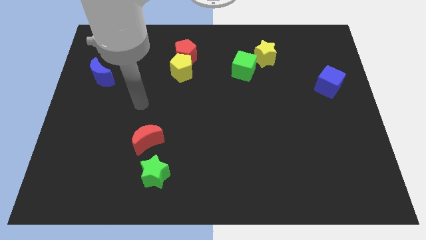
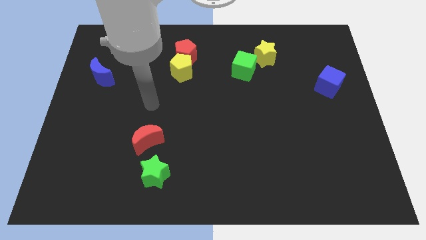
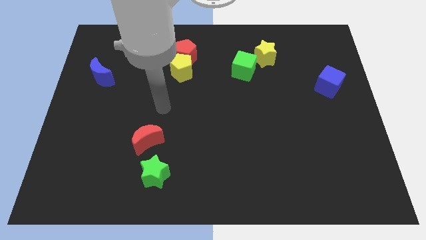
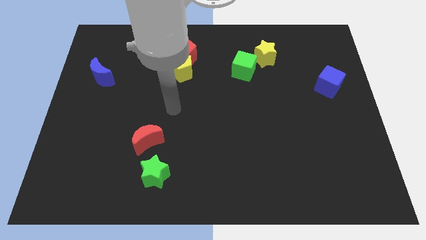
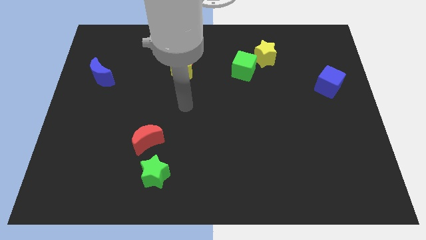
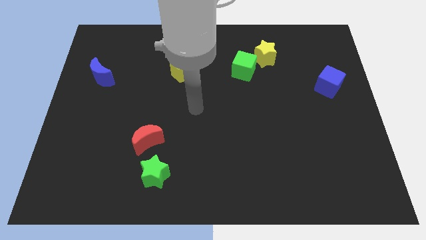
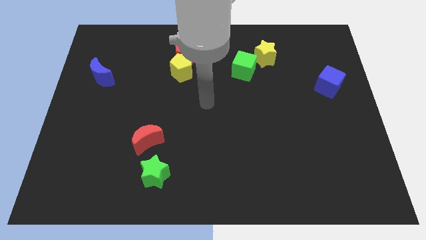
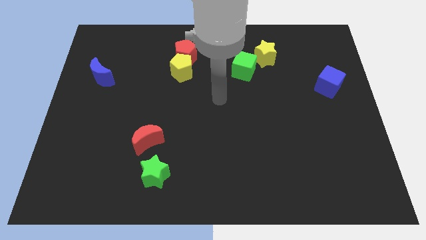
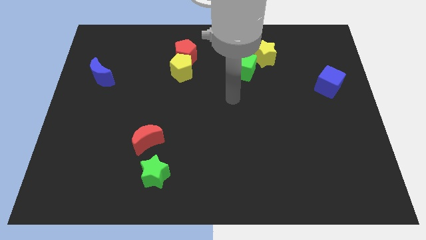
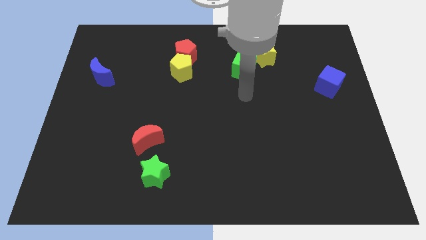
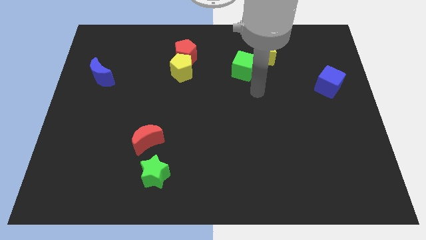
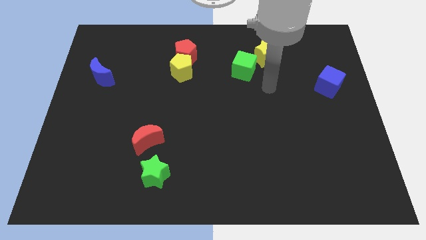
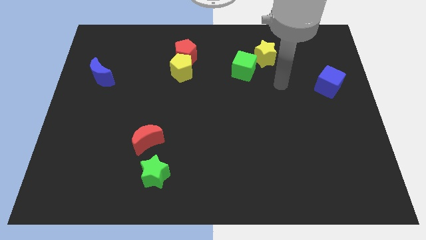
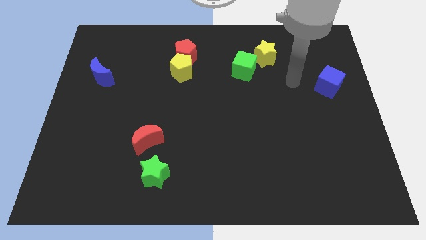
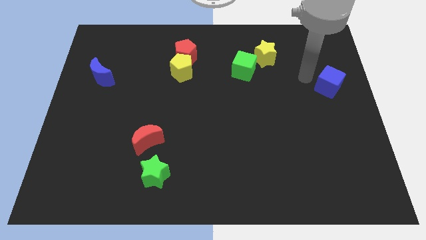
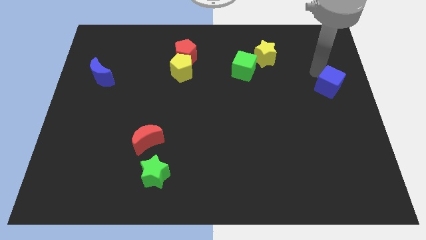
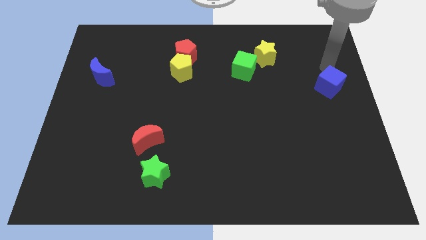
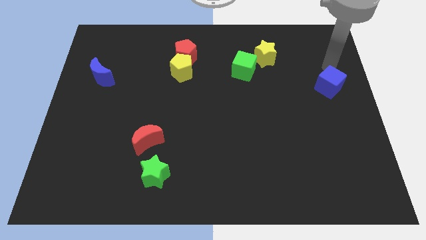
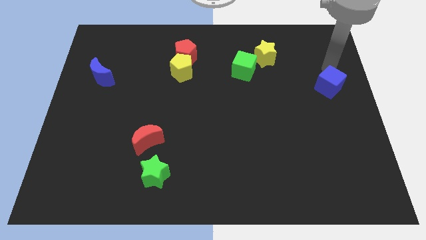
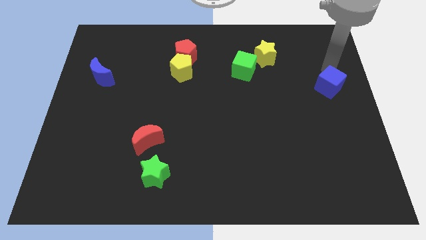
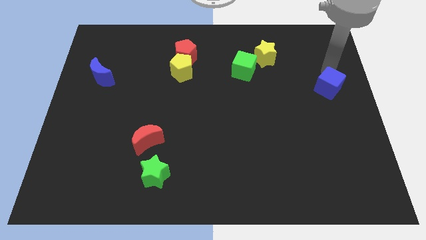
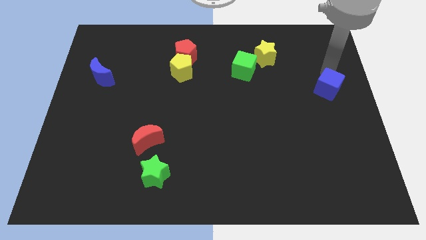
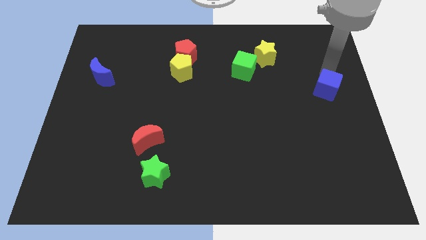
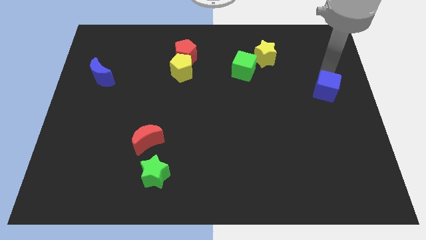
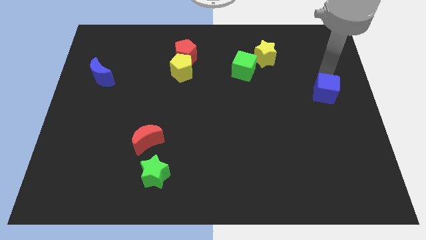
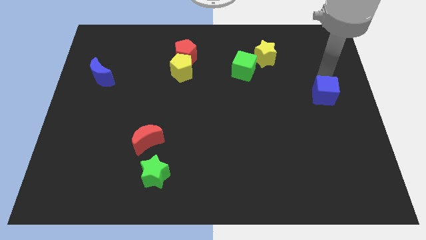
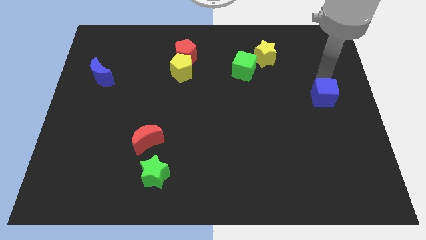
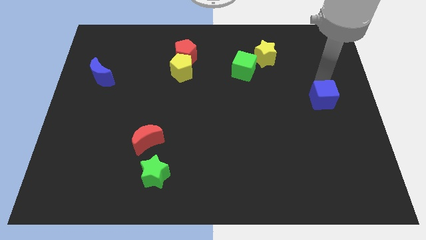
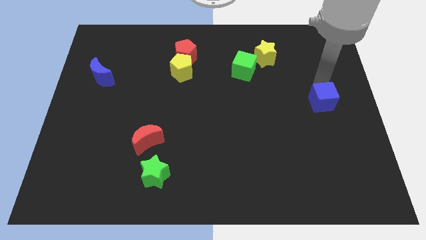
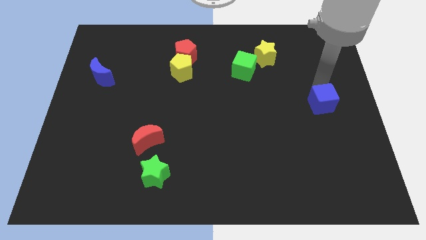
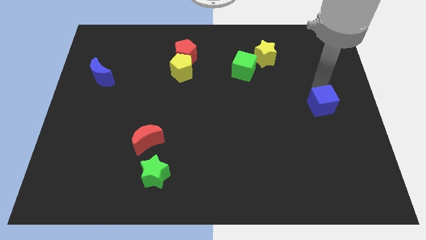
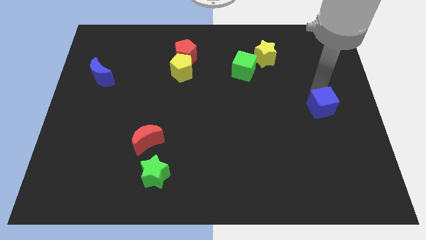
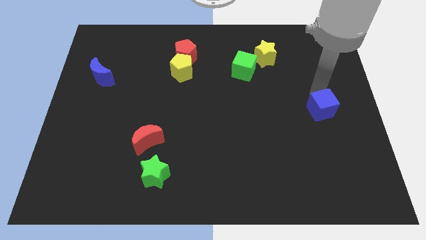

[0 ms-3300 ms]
slide the blue cube slightly downwards

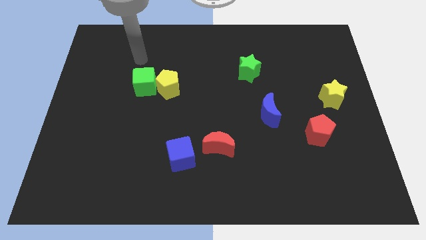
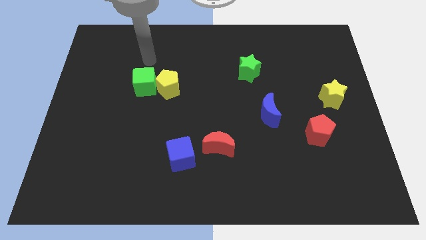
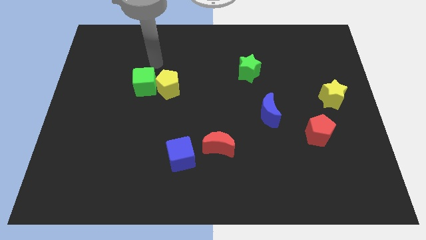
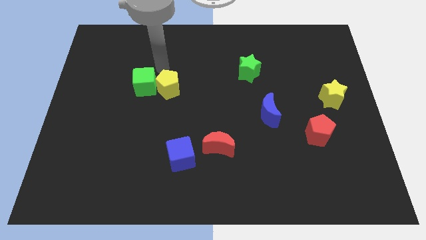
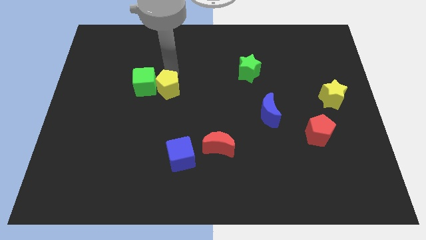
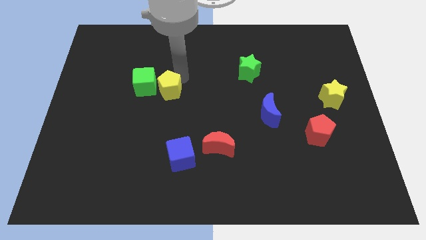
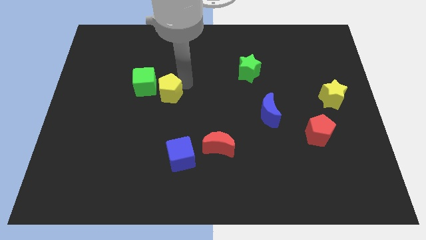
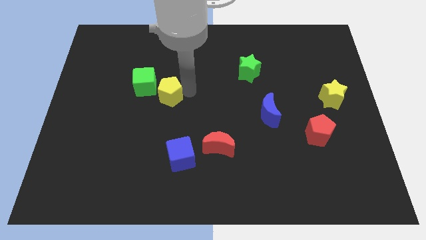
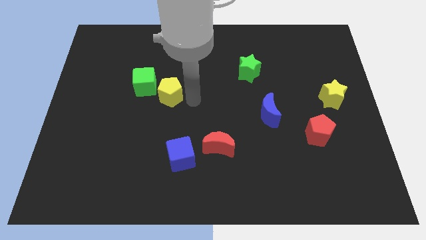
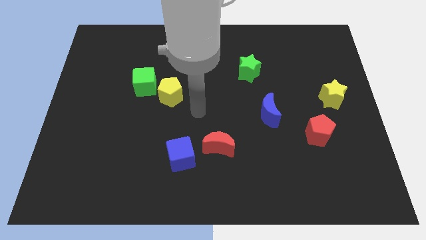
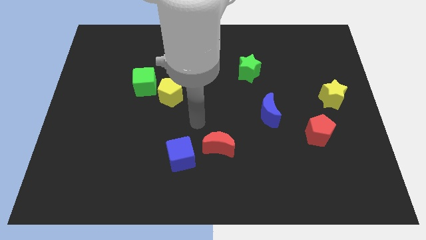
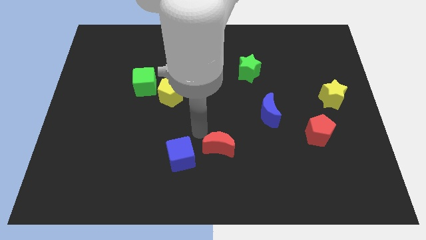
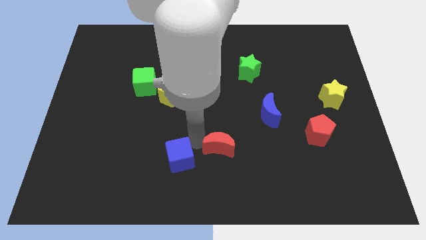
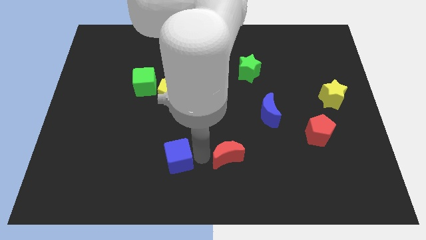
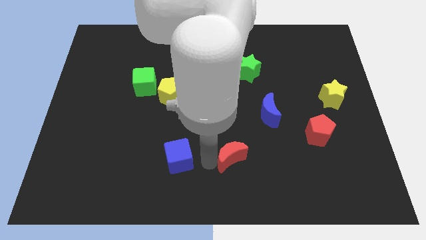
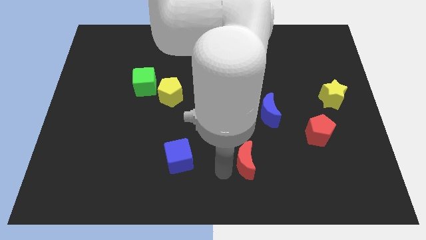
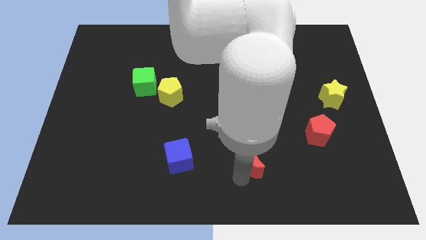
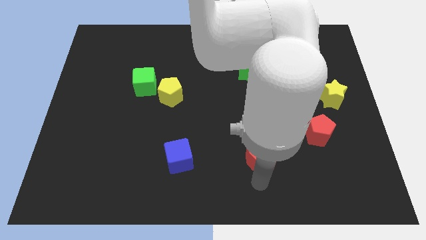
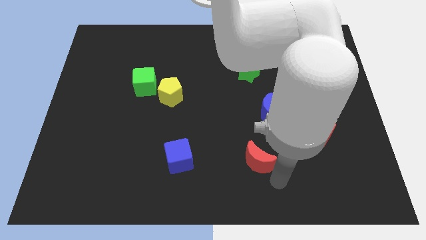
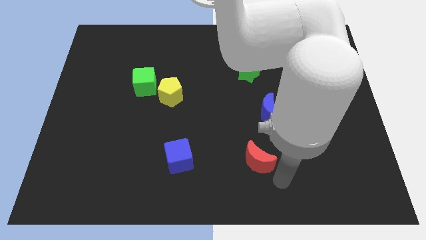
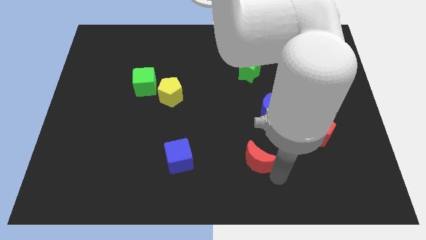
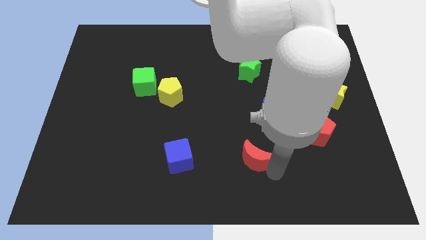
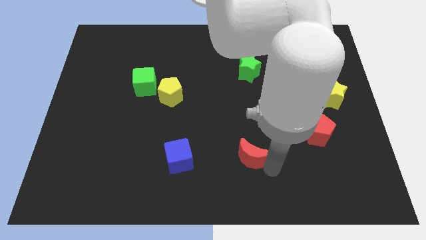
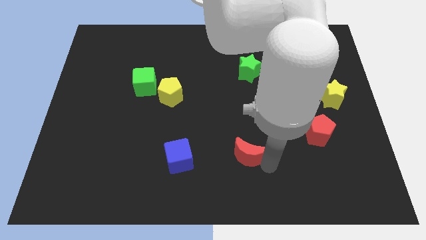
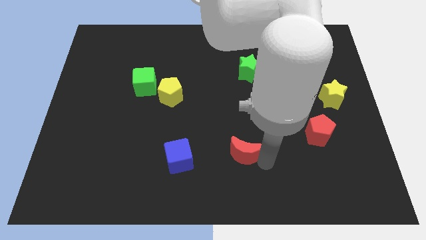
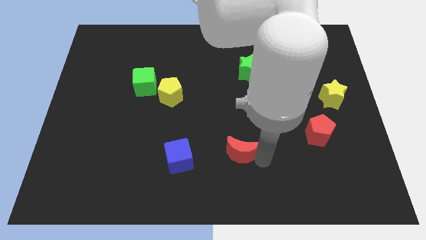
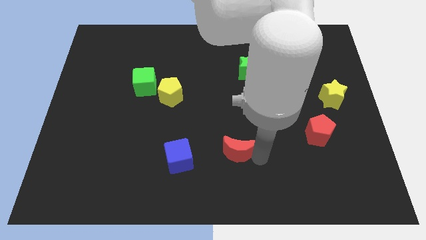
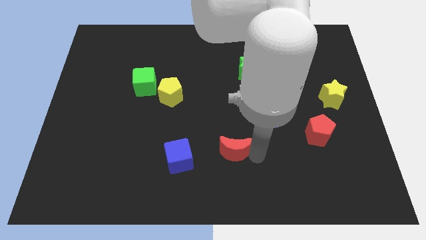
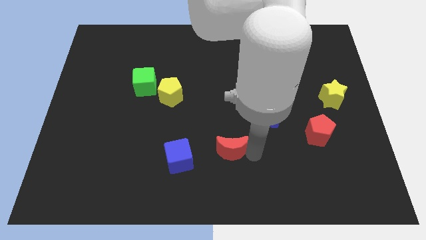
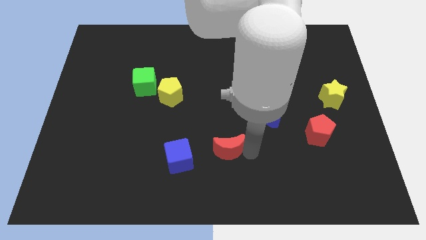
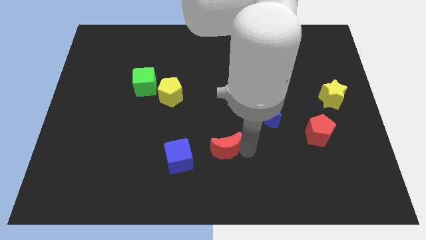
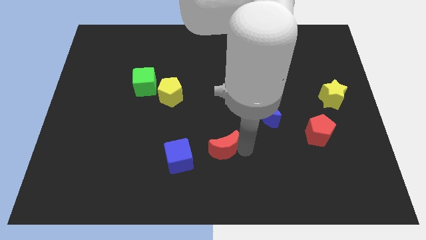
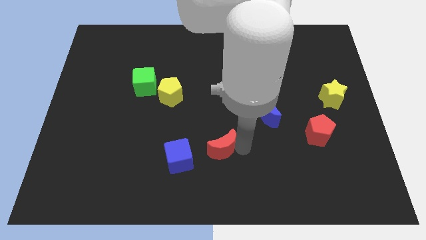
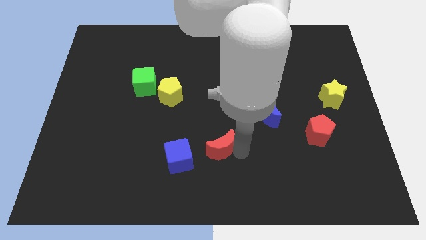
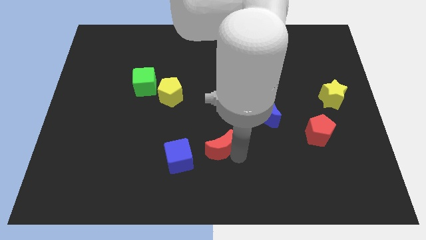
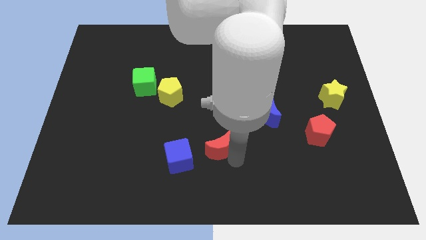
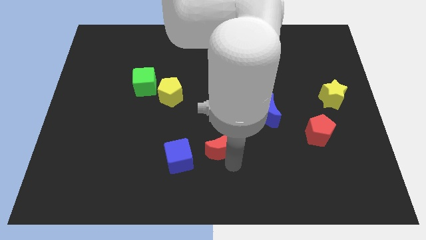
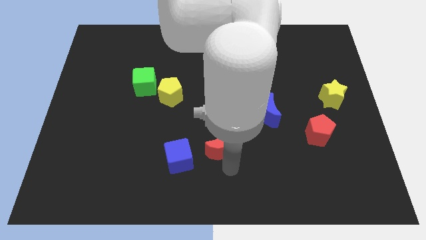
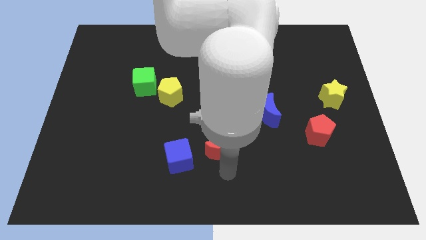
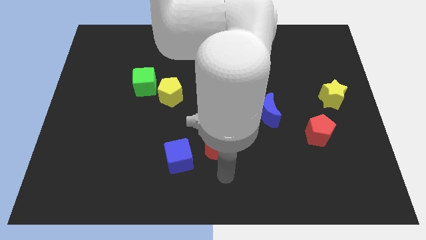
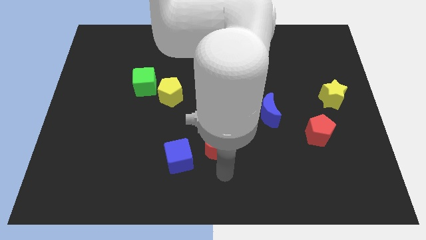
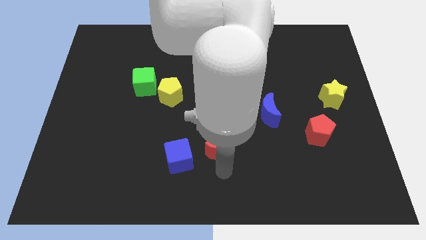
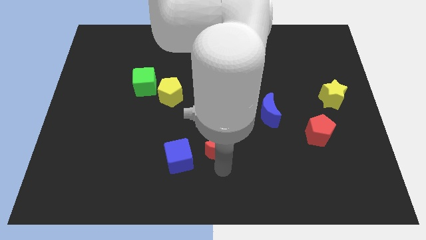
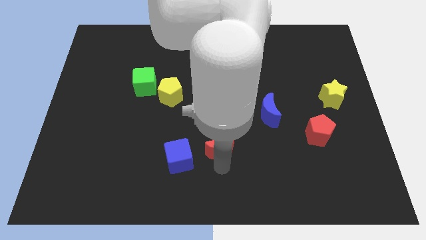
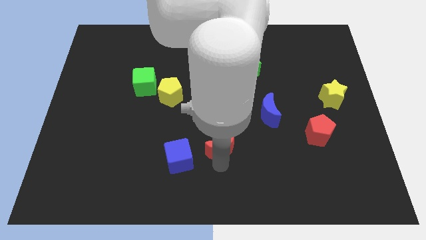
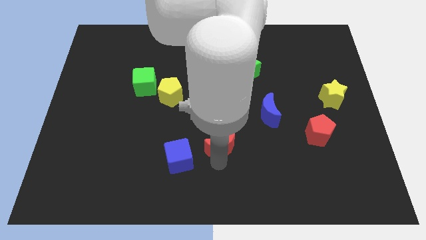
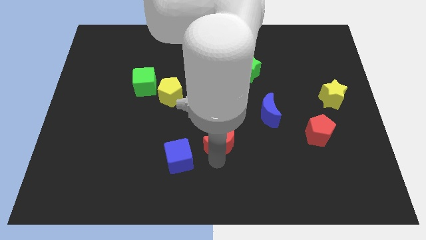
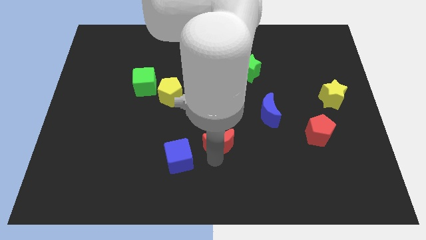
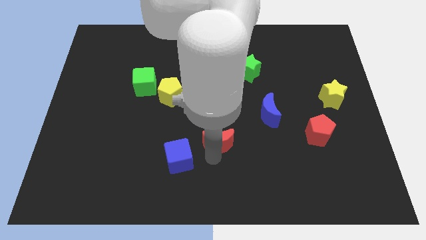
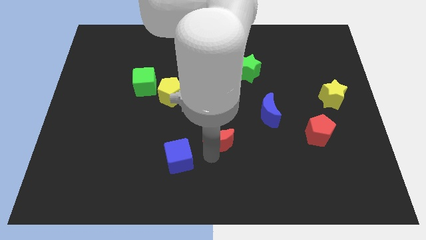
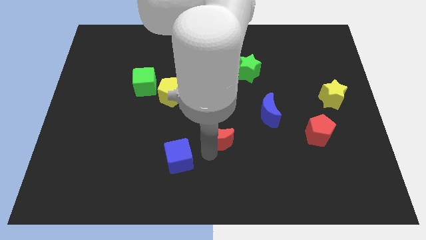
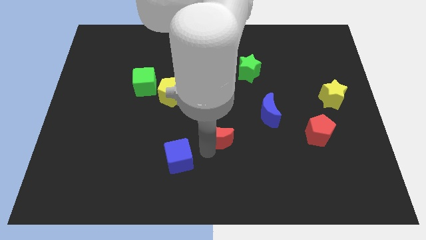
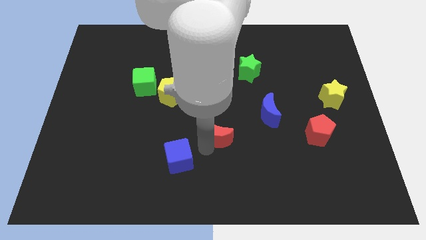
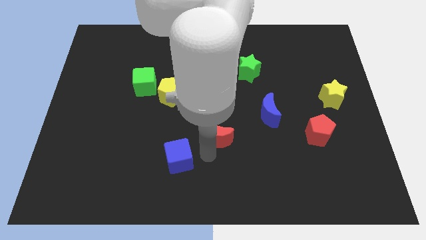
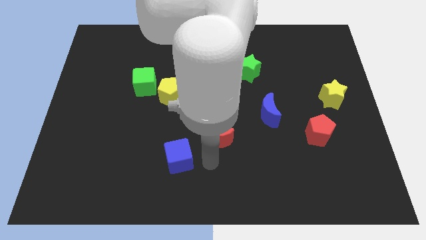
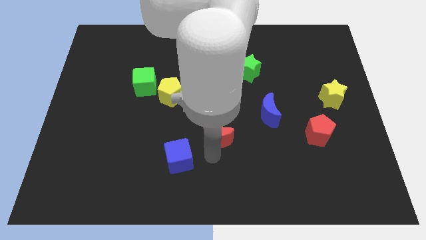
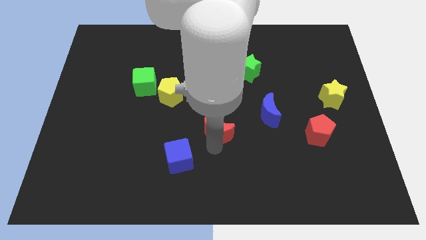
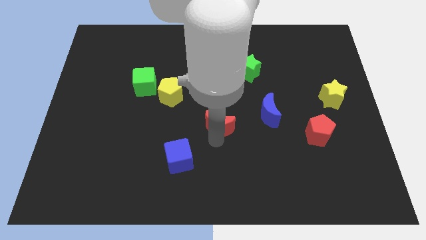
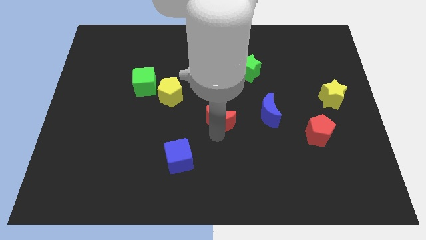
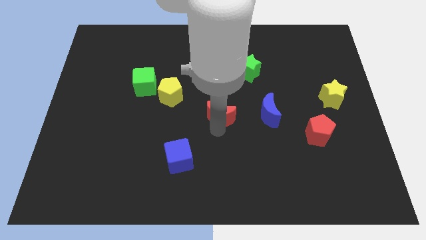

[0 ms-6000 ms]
move the red moon upwards a bit
